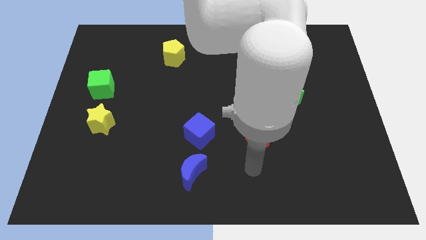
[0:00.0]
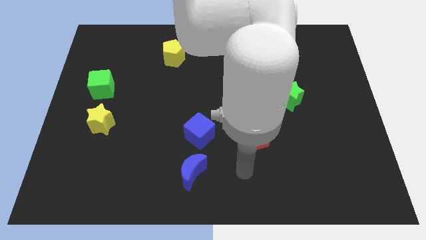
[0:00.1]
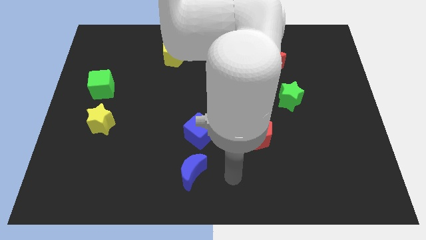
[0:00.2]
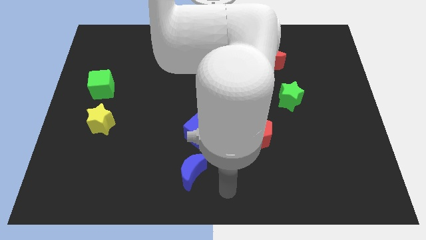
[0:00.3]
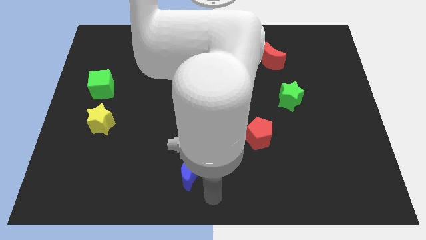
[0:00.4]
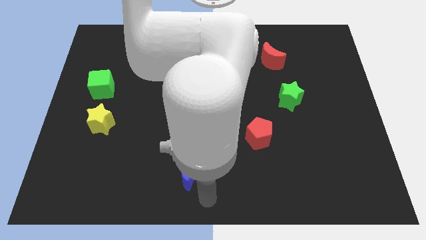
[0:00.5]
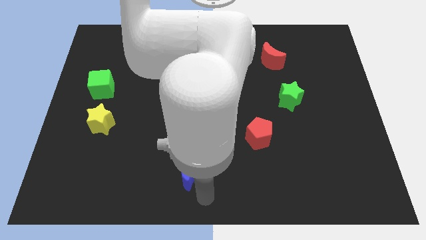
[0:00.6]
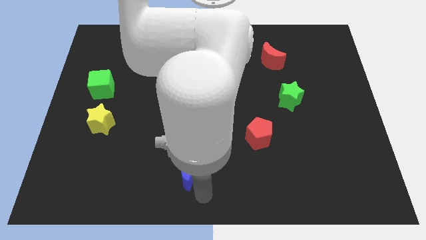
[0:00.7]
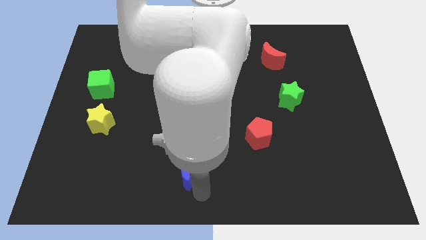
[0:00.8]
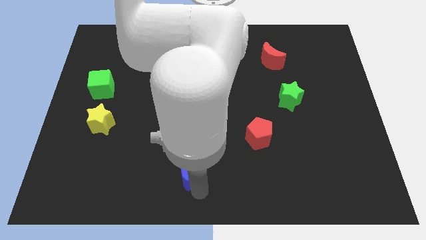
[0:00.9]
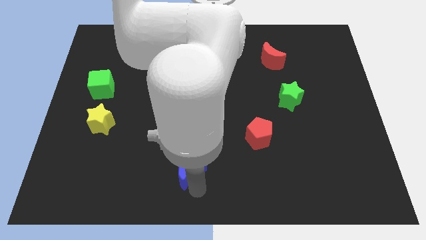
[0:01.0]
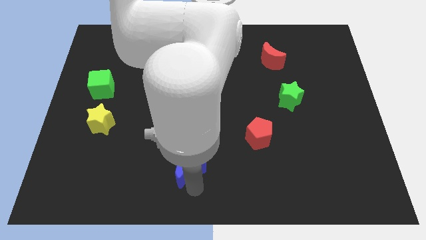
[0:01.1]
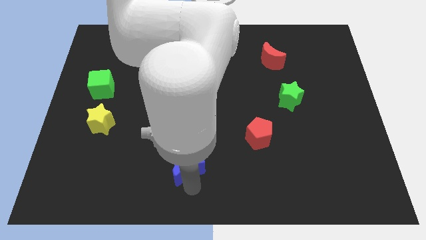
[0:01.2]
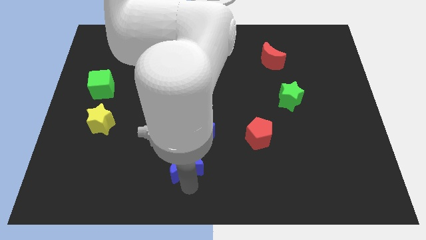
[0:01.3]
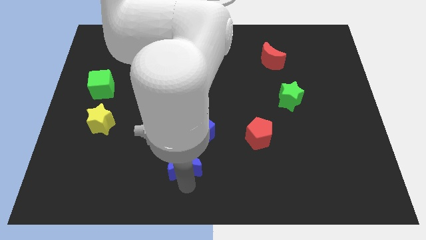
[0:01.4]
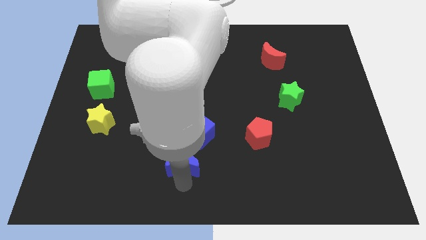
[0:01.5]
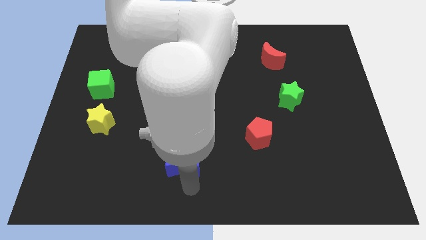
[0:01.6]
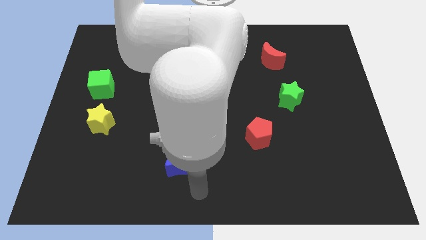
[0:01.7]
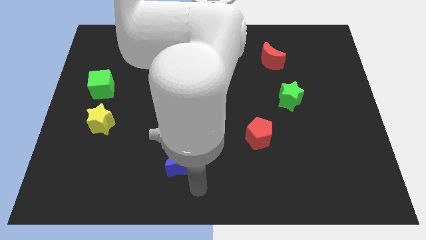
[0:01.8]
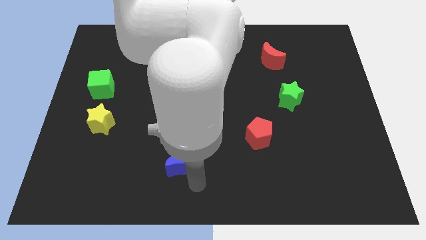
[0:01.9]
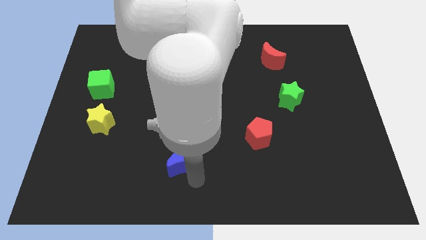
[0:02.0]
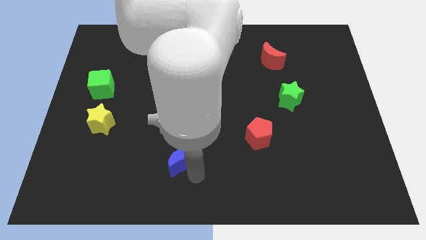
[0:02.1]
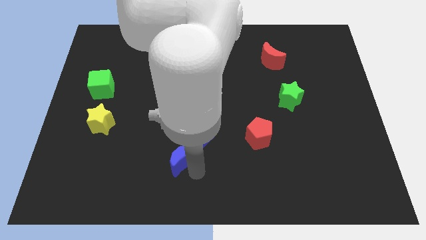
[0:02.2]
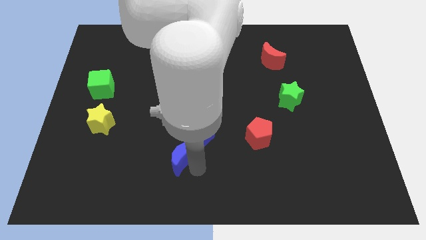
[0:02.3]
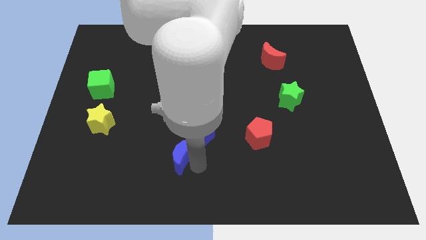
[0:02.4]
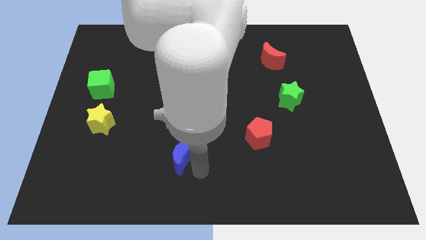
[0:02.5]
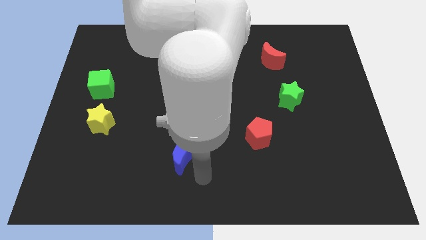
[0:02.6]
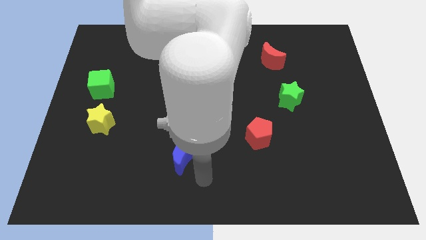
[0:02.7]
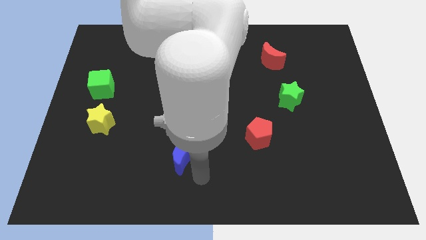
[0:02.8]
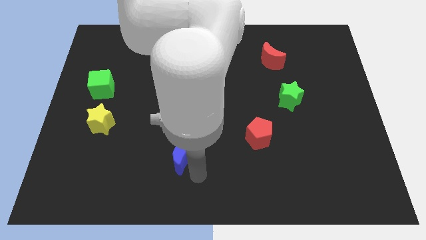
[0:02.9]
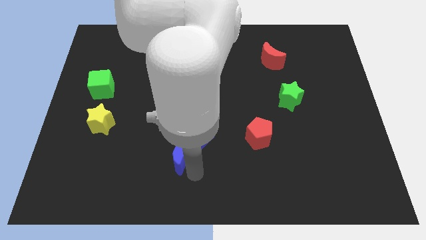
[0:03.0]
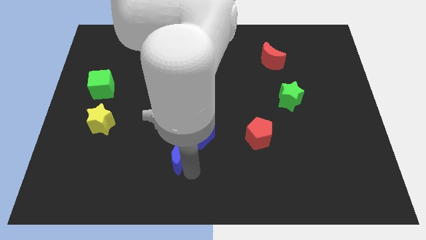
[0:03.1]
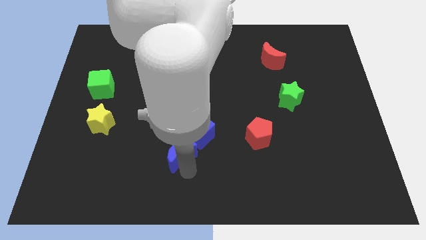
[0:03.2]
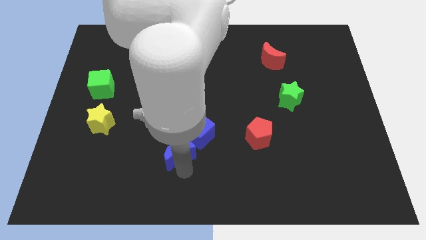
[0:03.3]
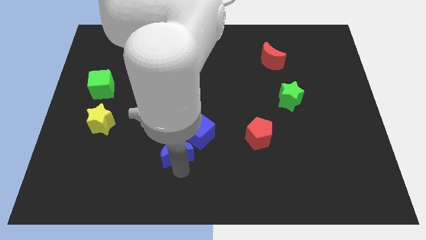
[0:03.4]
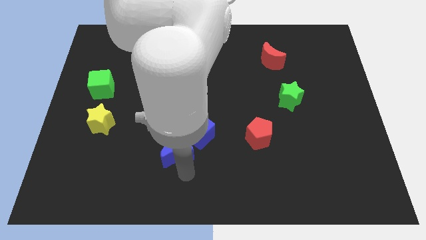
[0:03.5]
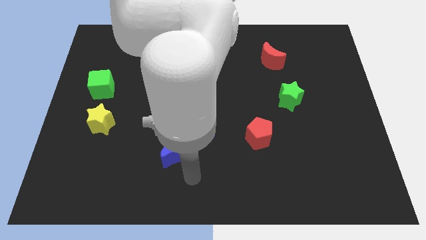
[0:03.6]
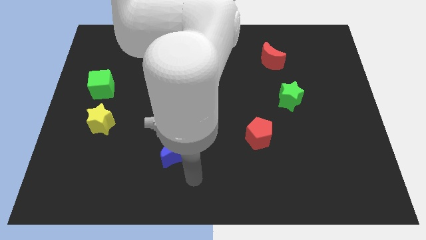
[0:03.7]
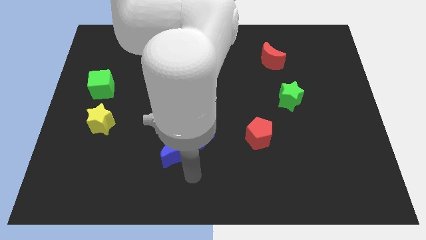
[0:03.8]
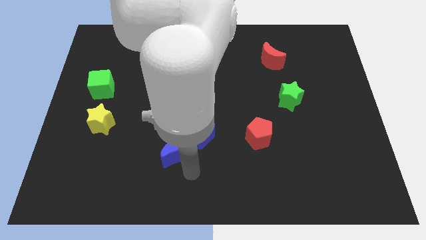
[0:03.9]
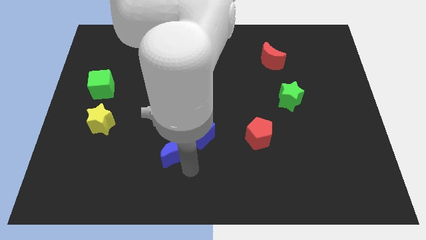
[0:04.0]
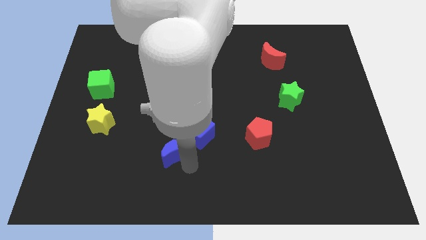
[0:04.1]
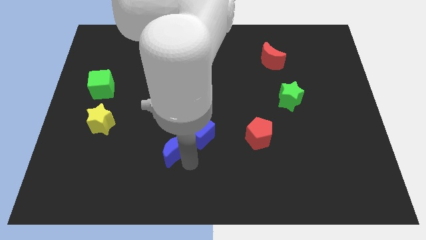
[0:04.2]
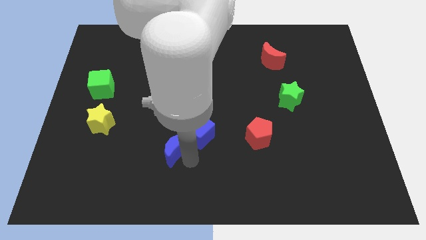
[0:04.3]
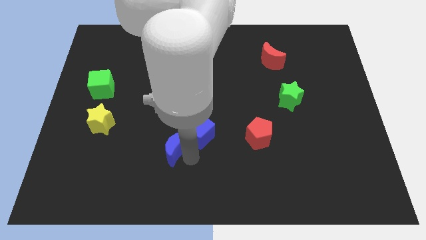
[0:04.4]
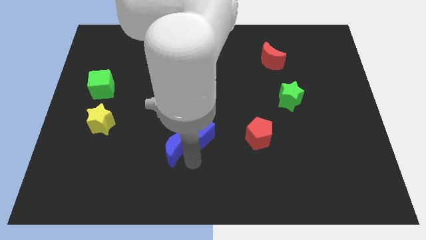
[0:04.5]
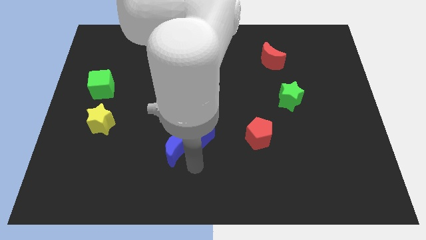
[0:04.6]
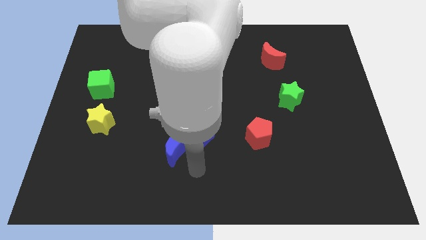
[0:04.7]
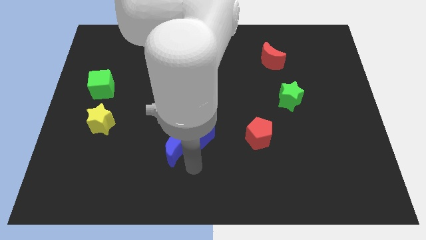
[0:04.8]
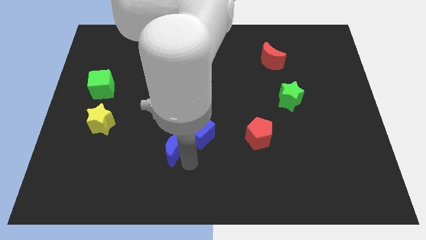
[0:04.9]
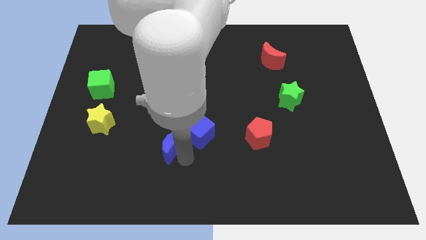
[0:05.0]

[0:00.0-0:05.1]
push the blue moon a little bit up and then to the left

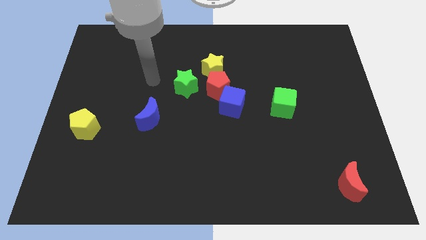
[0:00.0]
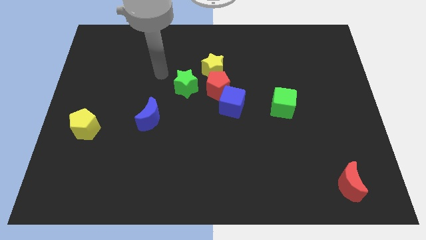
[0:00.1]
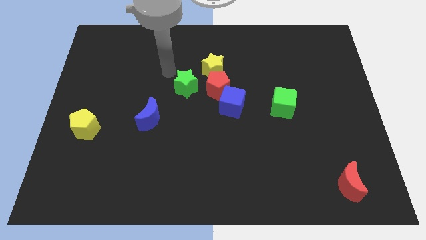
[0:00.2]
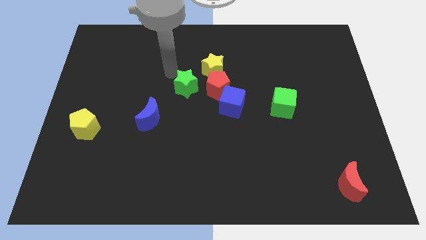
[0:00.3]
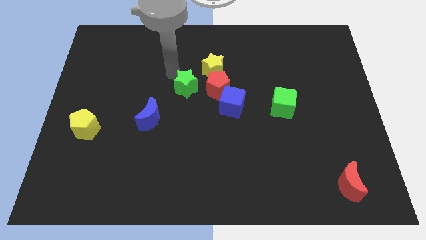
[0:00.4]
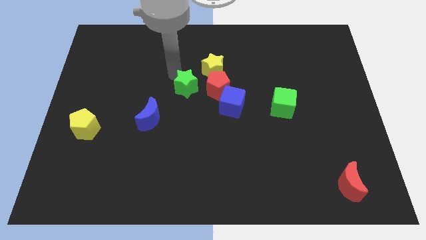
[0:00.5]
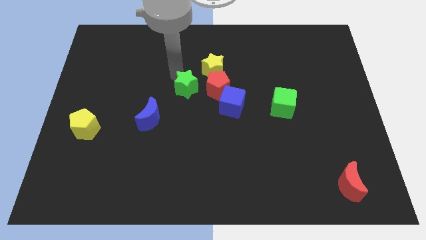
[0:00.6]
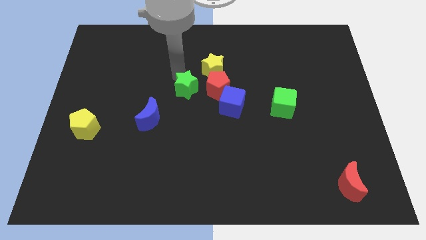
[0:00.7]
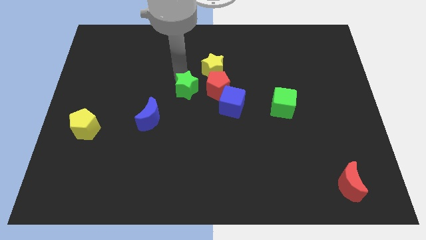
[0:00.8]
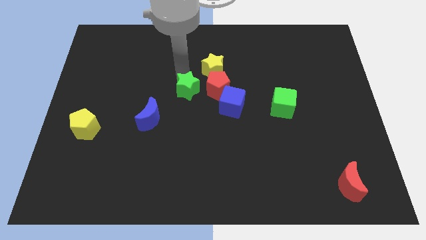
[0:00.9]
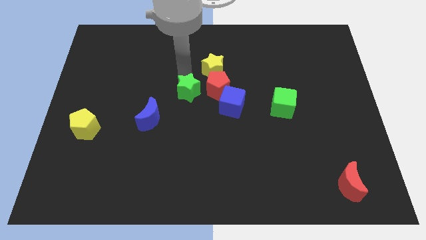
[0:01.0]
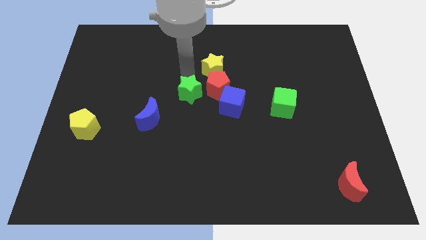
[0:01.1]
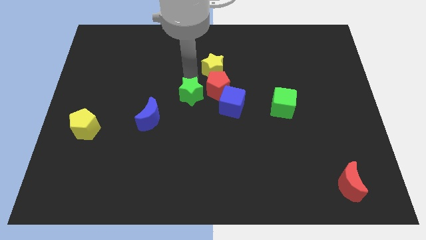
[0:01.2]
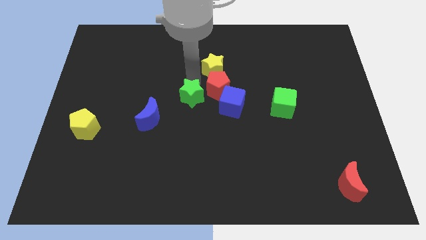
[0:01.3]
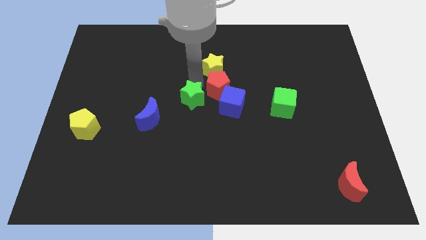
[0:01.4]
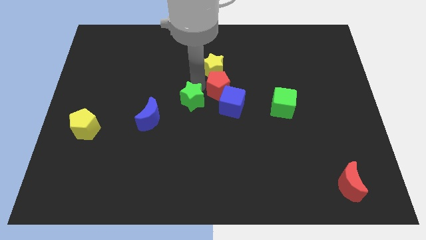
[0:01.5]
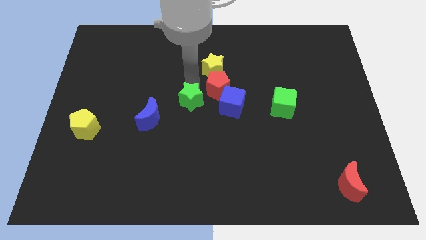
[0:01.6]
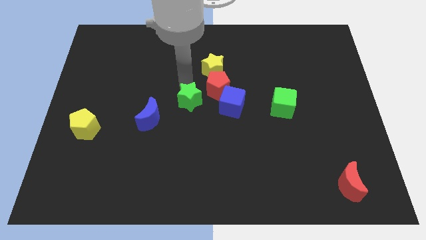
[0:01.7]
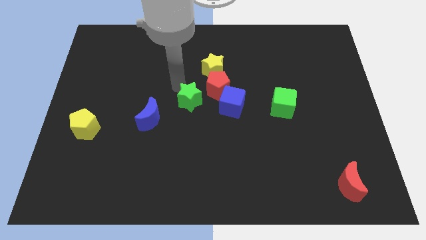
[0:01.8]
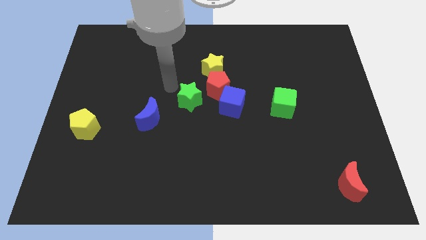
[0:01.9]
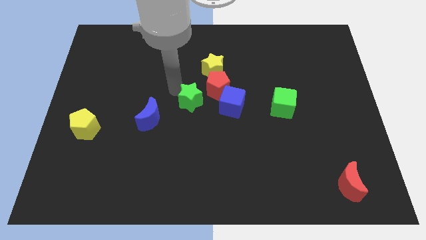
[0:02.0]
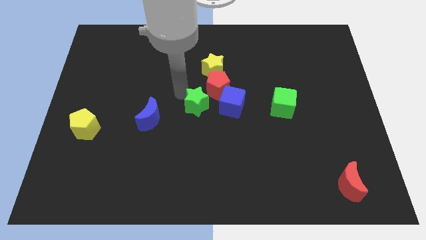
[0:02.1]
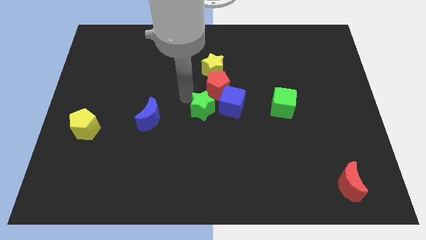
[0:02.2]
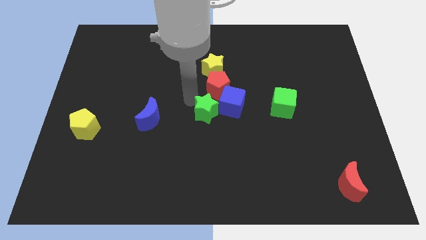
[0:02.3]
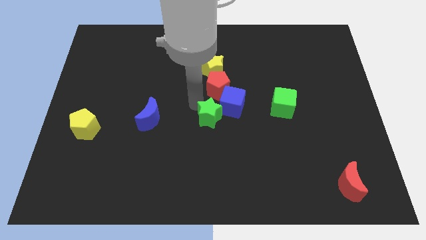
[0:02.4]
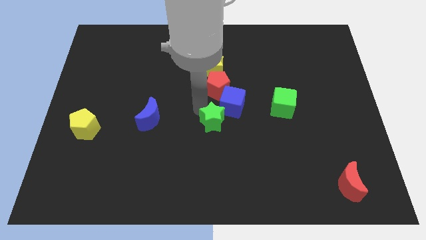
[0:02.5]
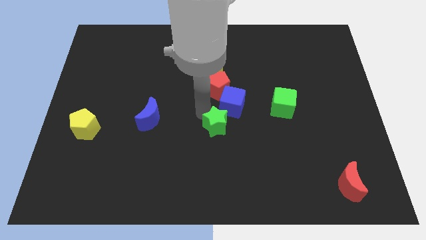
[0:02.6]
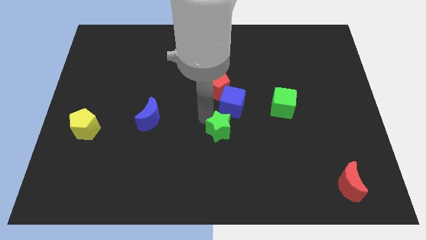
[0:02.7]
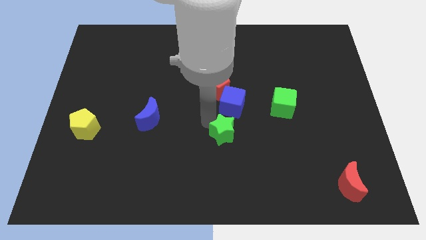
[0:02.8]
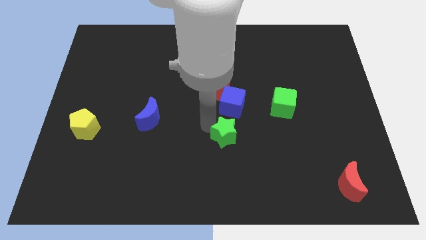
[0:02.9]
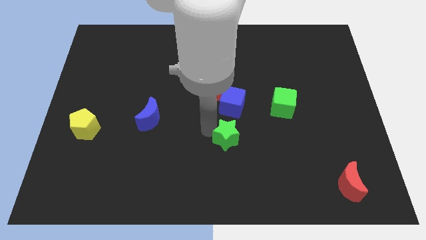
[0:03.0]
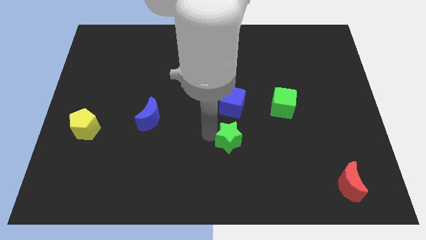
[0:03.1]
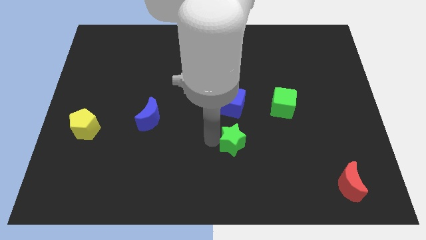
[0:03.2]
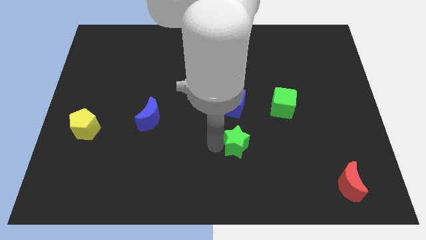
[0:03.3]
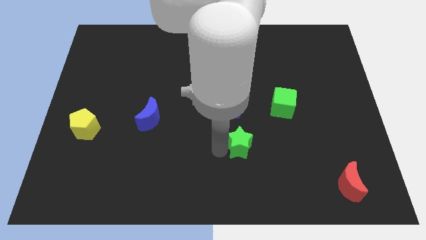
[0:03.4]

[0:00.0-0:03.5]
move the green star downwards and then right
